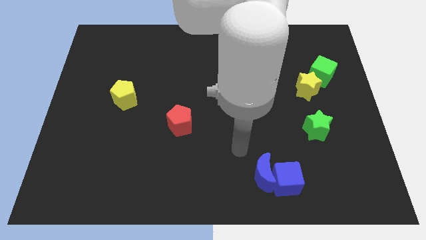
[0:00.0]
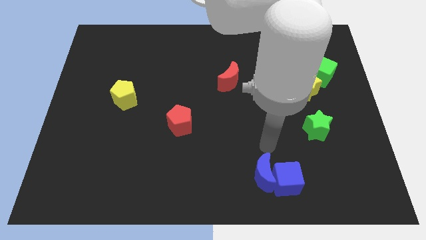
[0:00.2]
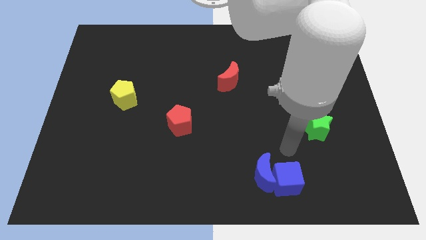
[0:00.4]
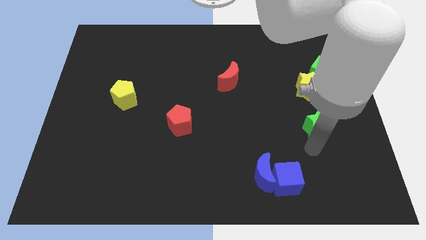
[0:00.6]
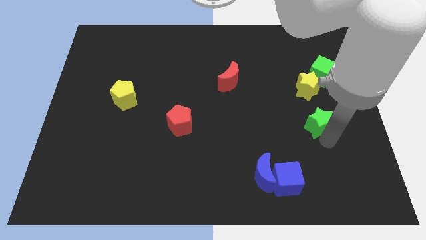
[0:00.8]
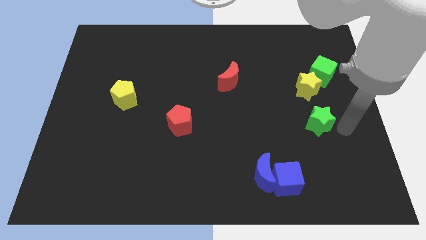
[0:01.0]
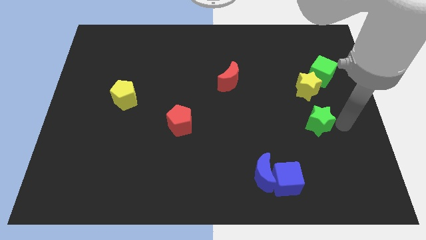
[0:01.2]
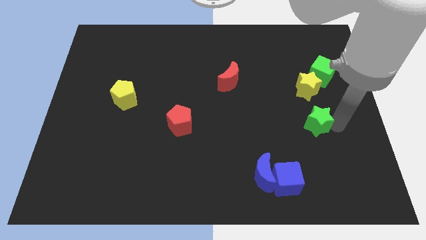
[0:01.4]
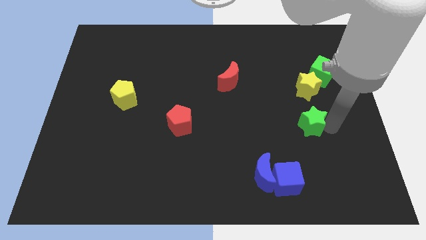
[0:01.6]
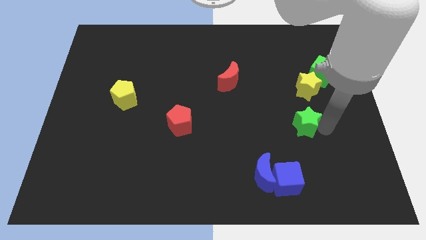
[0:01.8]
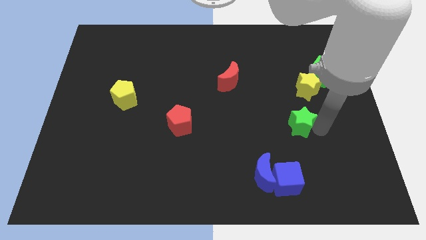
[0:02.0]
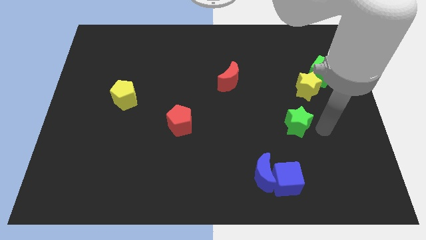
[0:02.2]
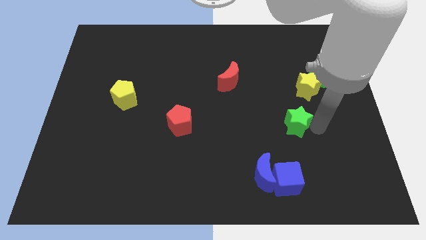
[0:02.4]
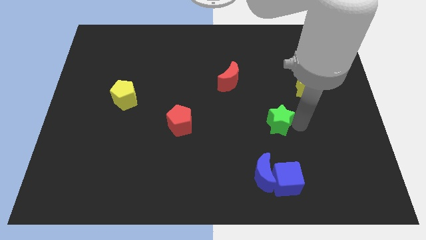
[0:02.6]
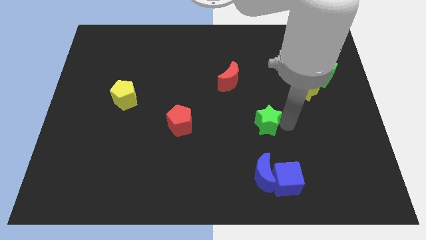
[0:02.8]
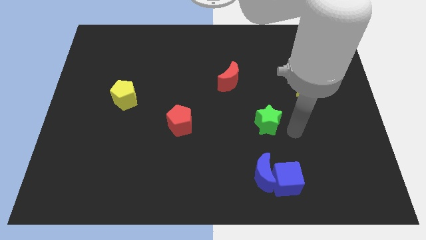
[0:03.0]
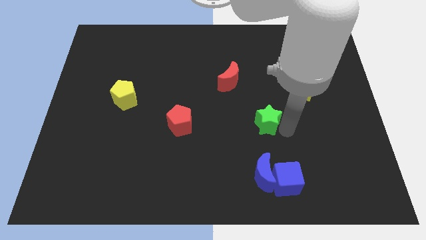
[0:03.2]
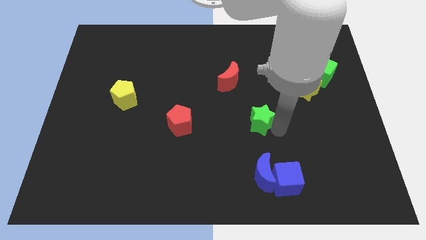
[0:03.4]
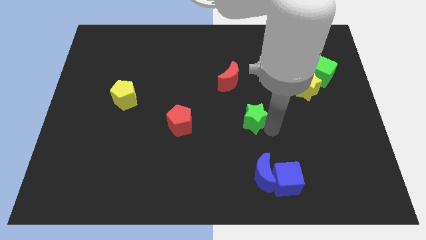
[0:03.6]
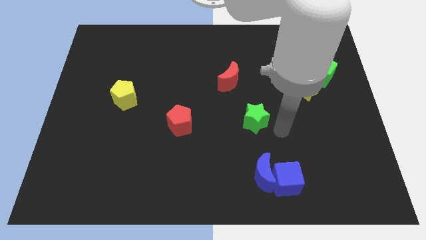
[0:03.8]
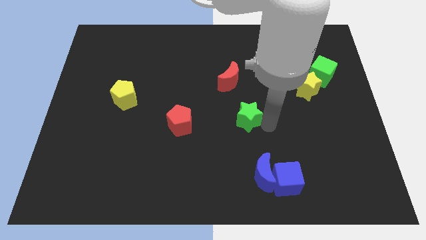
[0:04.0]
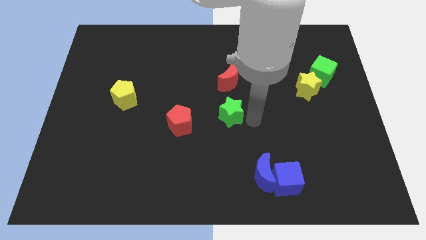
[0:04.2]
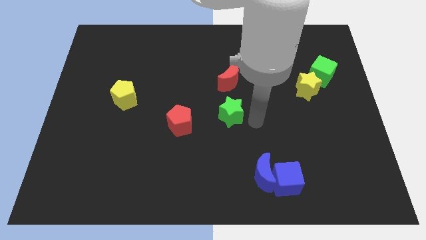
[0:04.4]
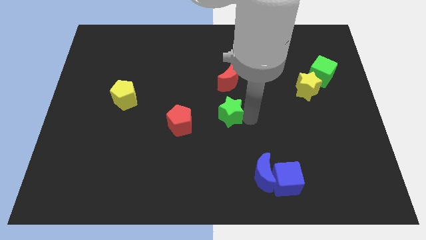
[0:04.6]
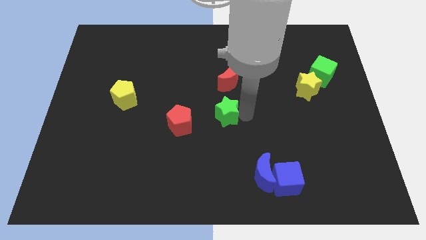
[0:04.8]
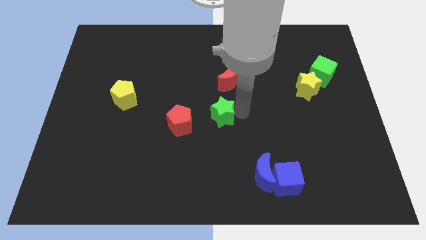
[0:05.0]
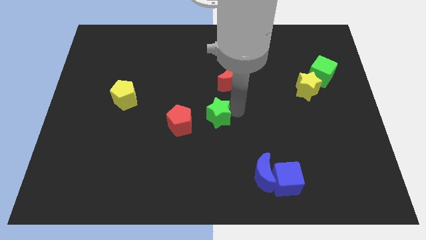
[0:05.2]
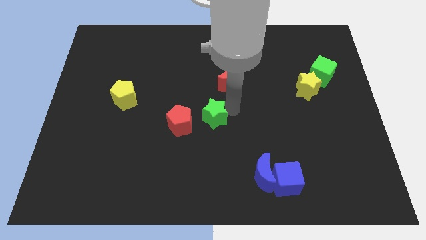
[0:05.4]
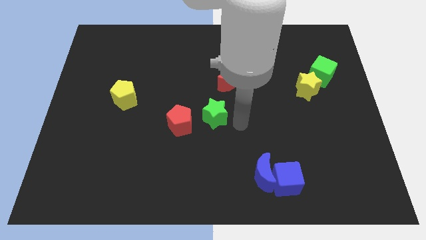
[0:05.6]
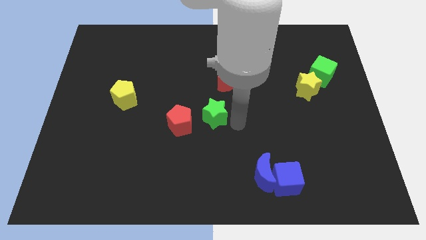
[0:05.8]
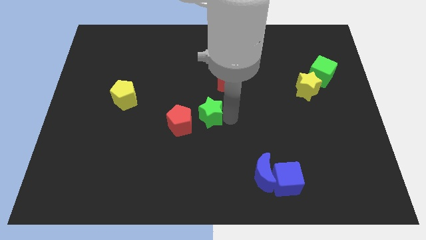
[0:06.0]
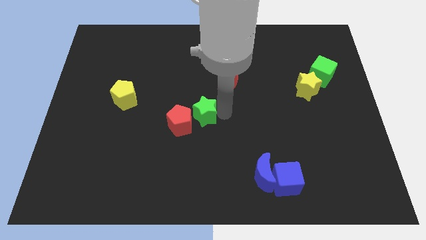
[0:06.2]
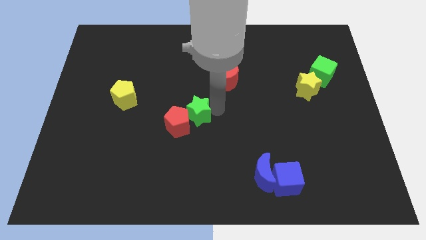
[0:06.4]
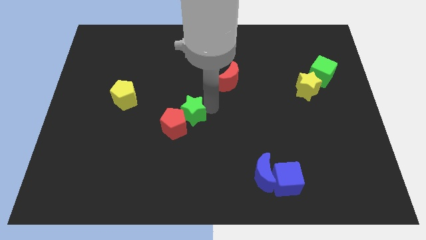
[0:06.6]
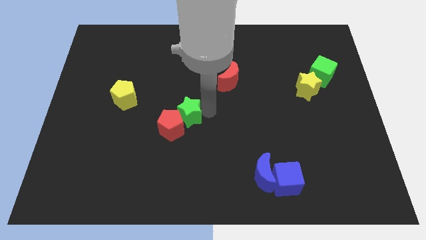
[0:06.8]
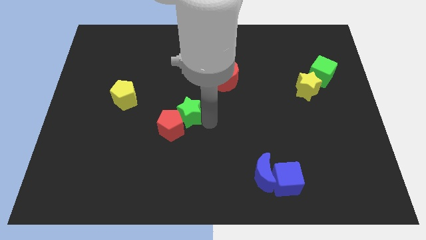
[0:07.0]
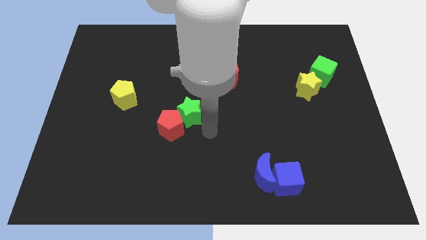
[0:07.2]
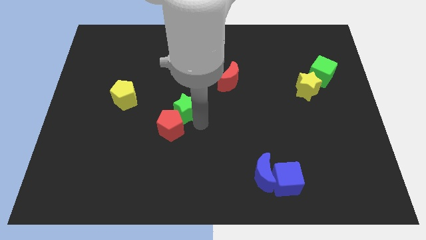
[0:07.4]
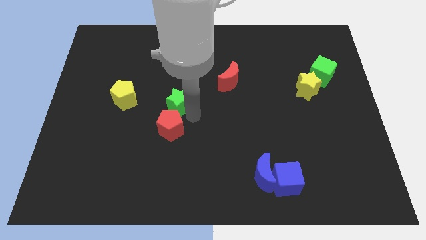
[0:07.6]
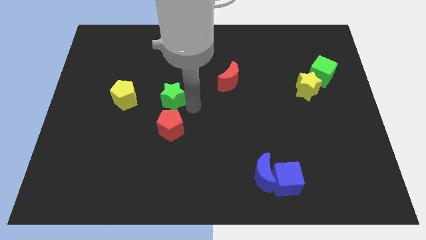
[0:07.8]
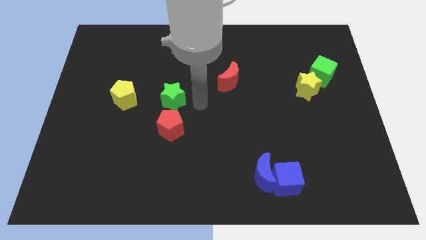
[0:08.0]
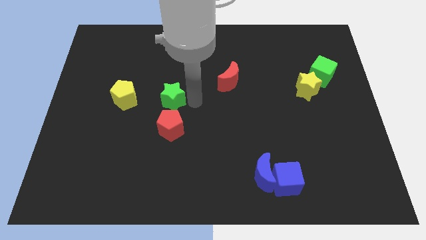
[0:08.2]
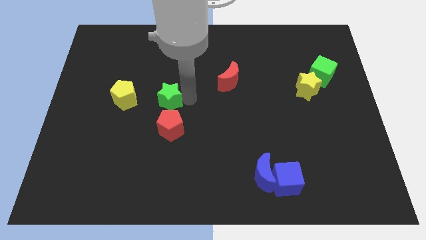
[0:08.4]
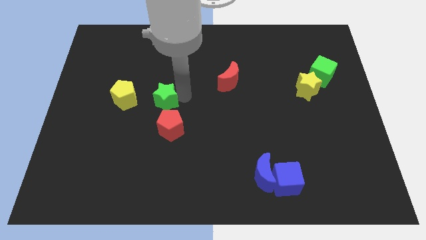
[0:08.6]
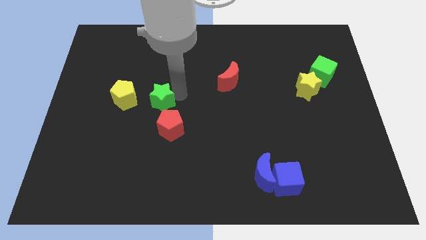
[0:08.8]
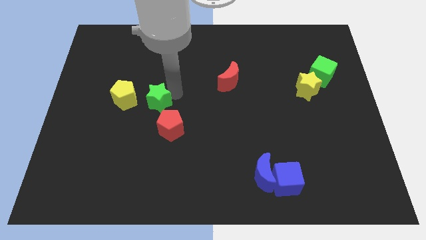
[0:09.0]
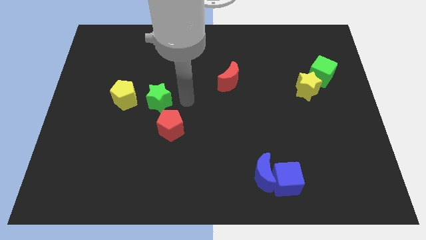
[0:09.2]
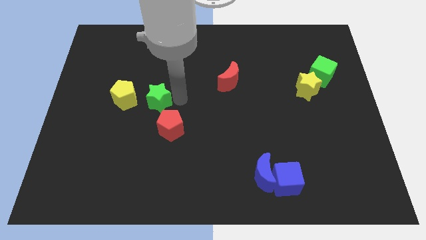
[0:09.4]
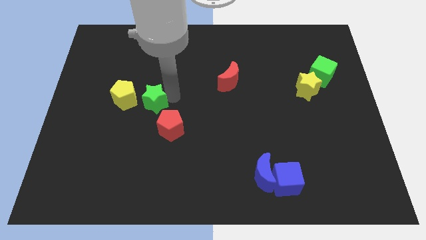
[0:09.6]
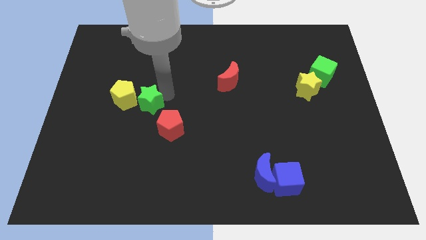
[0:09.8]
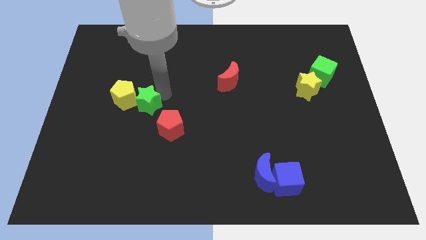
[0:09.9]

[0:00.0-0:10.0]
push the green star towards the yellow pentagon

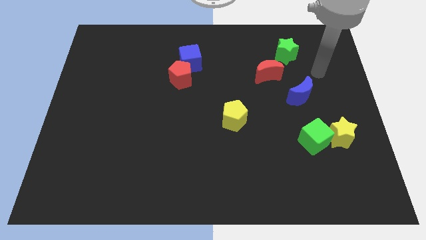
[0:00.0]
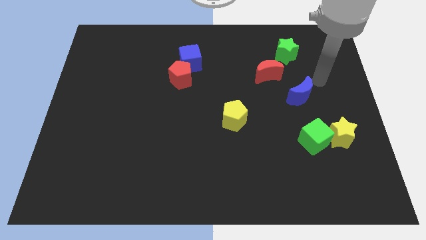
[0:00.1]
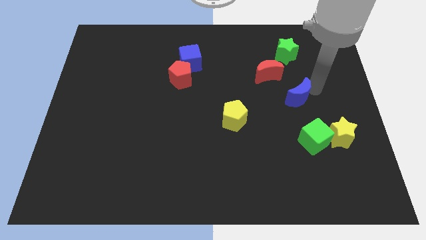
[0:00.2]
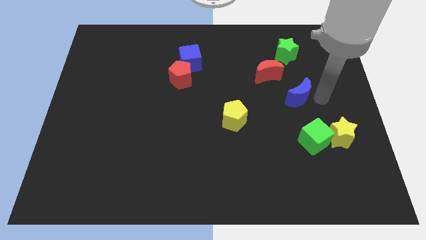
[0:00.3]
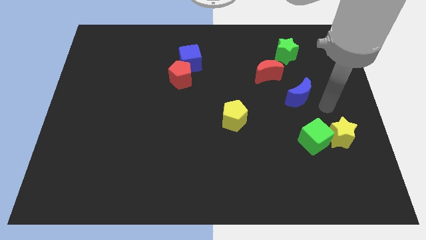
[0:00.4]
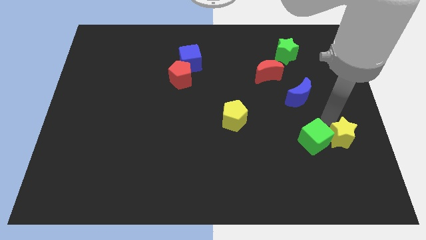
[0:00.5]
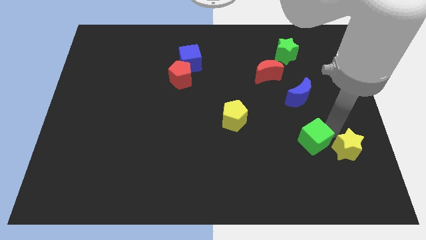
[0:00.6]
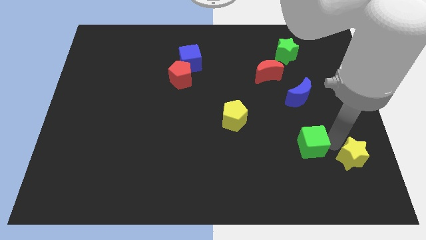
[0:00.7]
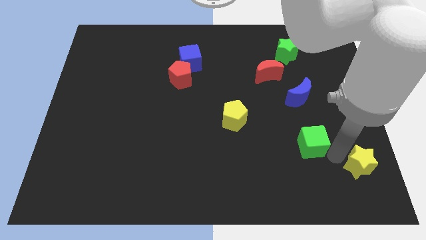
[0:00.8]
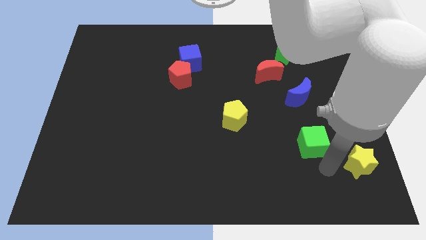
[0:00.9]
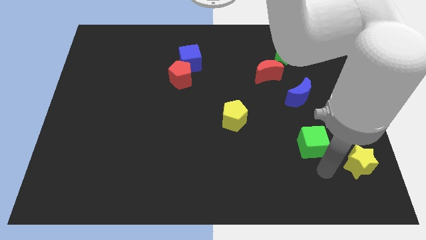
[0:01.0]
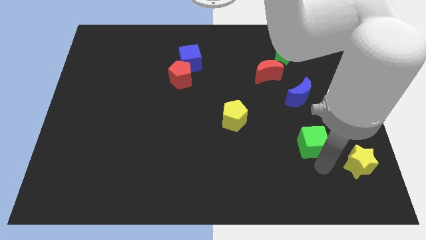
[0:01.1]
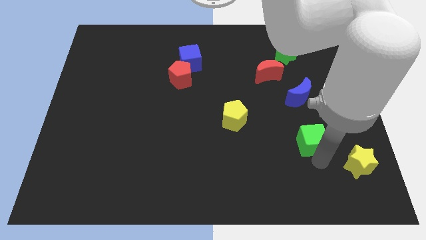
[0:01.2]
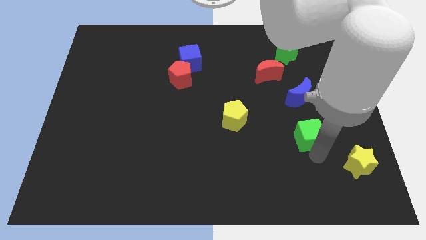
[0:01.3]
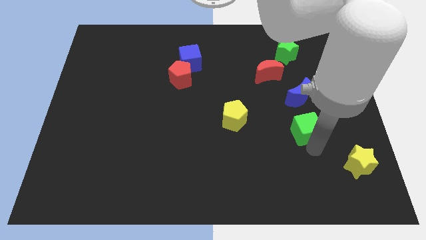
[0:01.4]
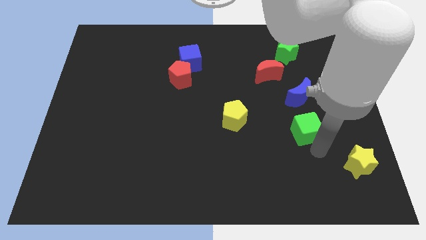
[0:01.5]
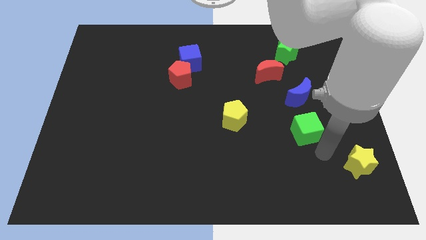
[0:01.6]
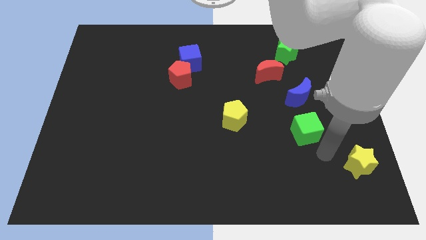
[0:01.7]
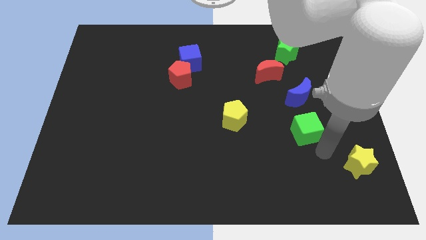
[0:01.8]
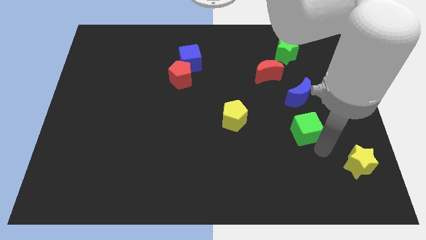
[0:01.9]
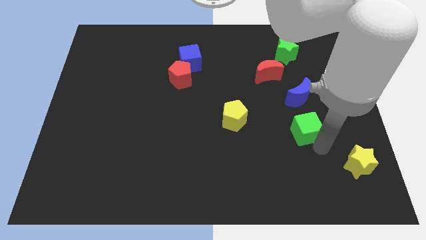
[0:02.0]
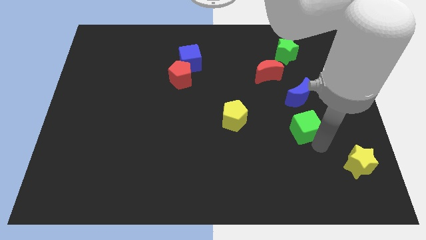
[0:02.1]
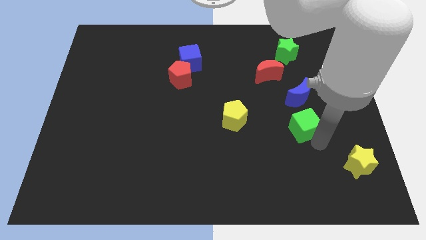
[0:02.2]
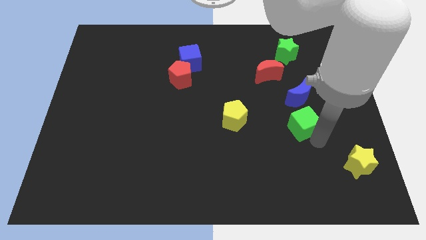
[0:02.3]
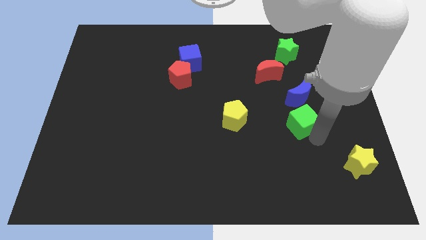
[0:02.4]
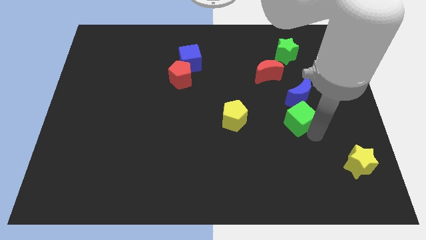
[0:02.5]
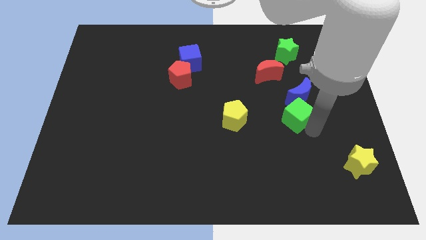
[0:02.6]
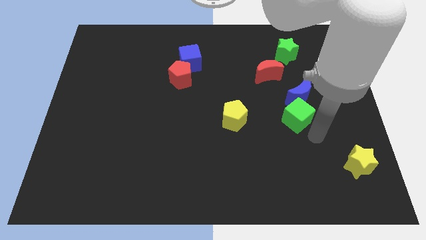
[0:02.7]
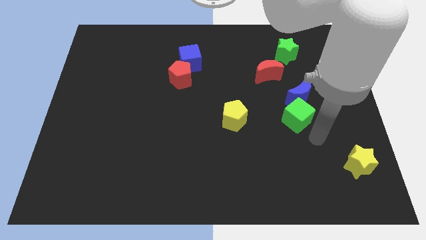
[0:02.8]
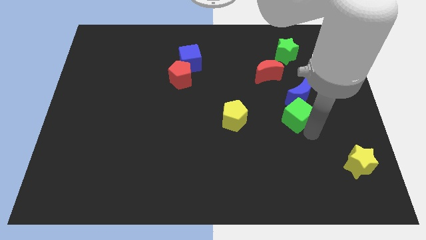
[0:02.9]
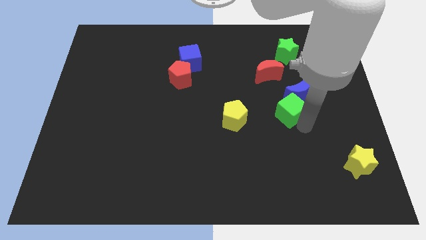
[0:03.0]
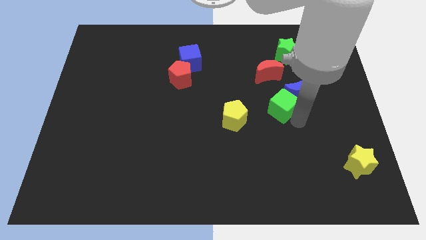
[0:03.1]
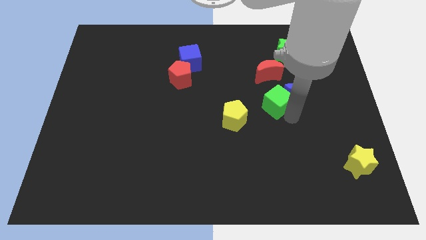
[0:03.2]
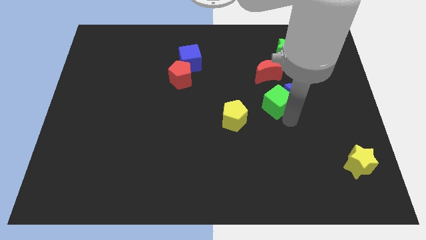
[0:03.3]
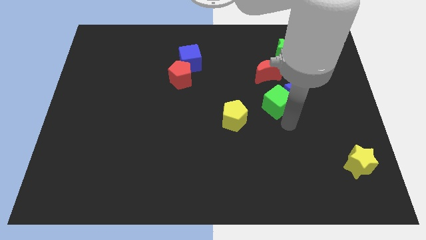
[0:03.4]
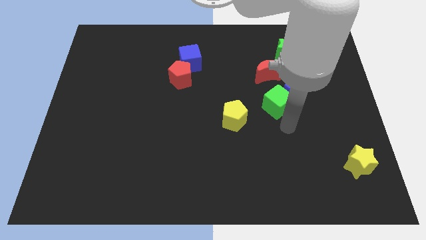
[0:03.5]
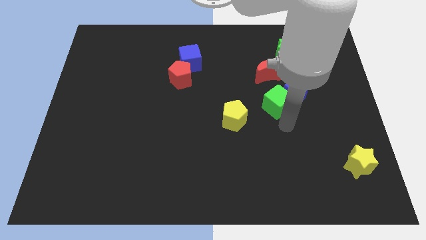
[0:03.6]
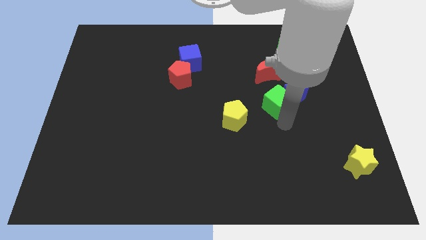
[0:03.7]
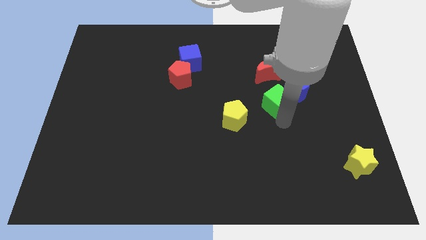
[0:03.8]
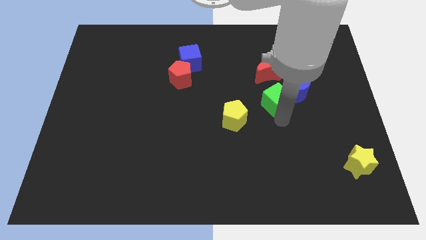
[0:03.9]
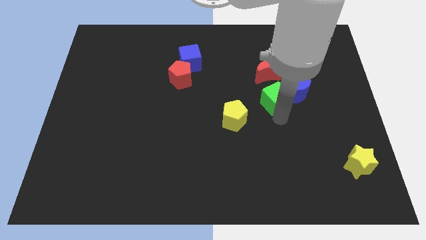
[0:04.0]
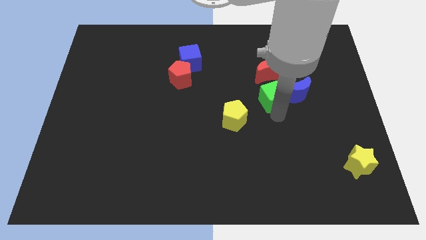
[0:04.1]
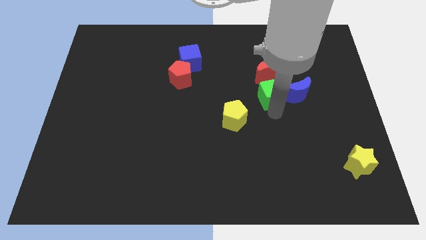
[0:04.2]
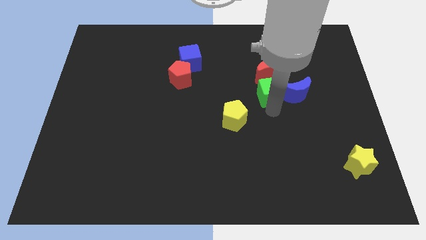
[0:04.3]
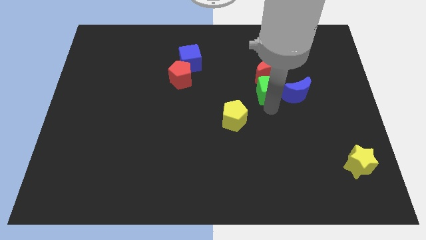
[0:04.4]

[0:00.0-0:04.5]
push the green cube towards the red moon
